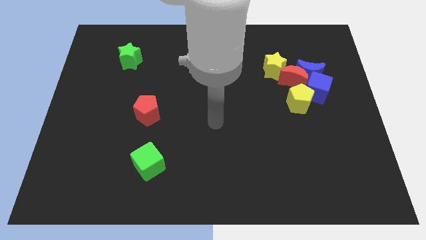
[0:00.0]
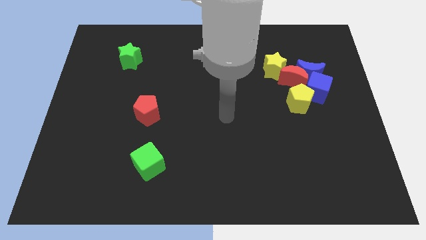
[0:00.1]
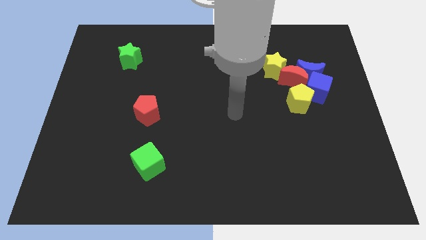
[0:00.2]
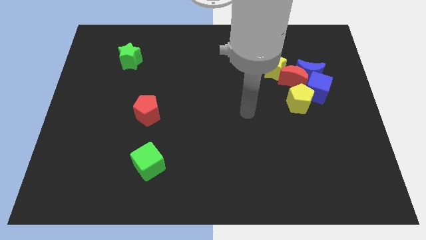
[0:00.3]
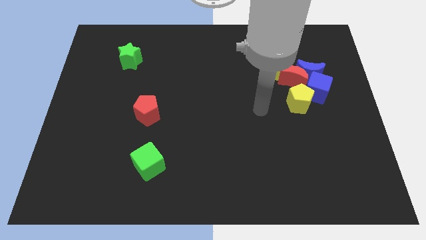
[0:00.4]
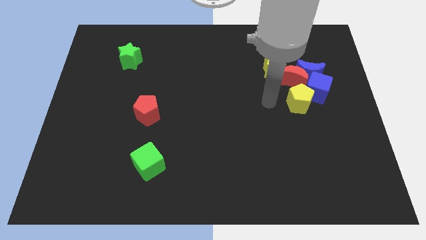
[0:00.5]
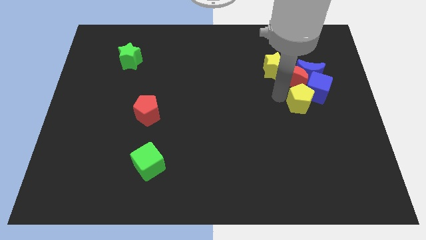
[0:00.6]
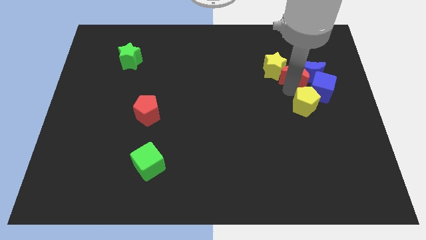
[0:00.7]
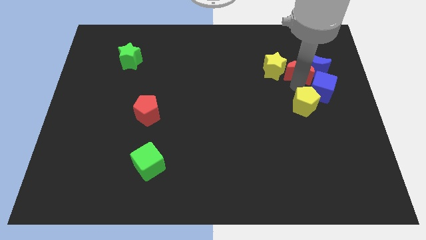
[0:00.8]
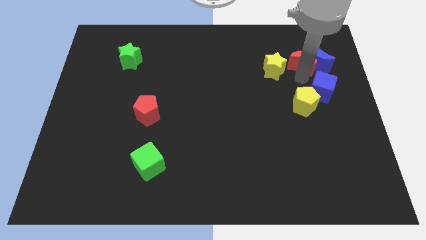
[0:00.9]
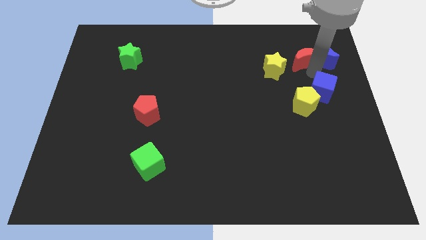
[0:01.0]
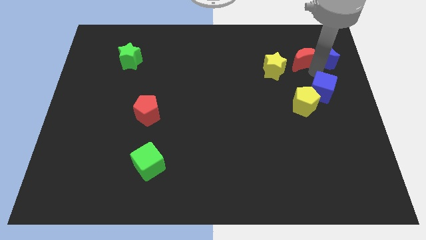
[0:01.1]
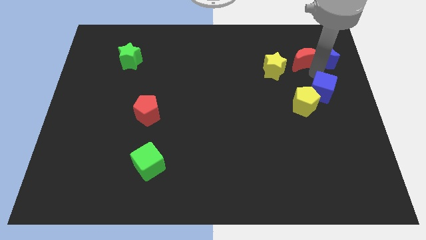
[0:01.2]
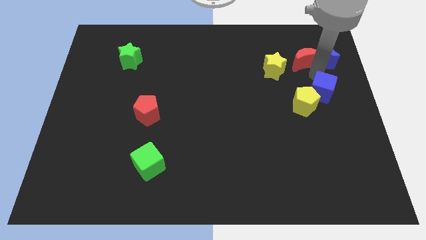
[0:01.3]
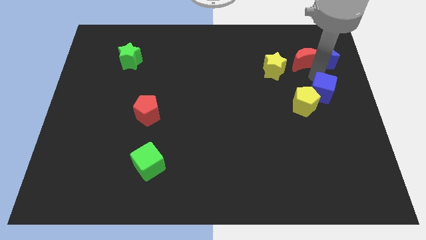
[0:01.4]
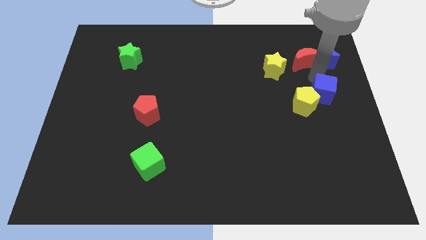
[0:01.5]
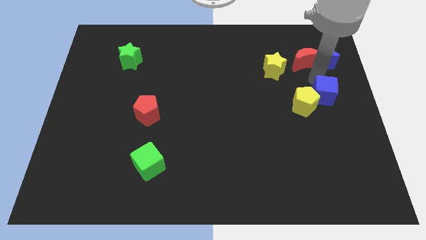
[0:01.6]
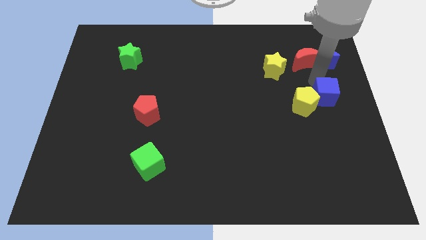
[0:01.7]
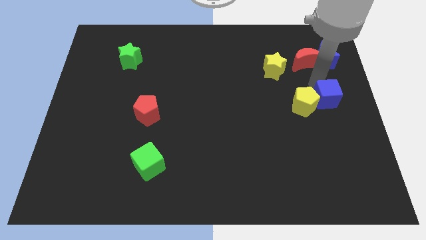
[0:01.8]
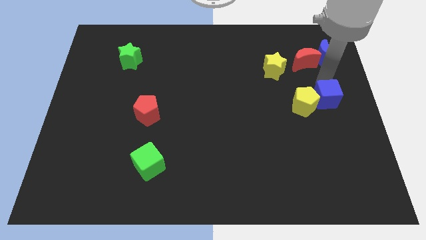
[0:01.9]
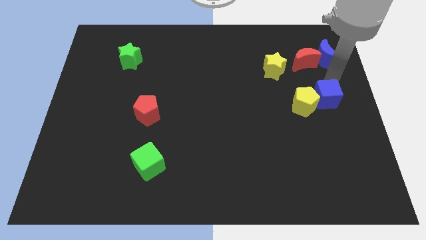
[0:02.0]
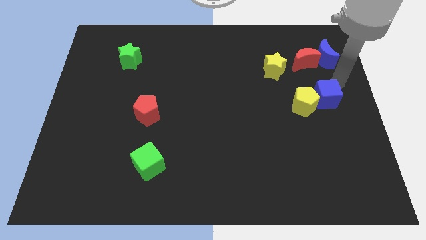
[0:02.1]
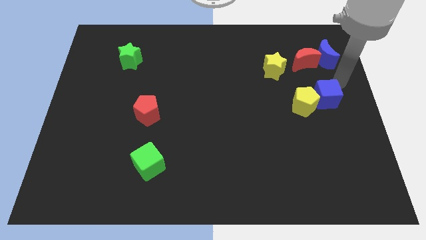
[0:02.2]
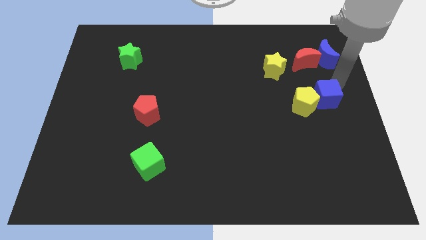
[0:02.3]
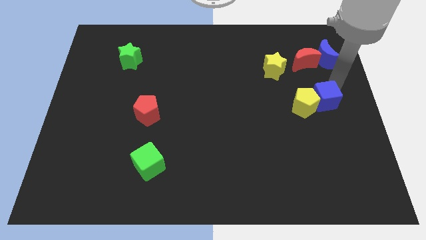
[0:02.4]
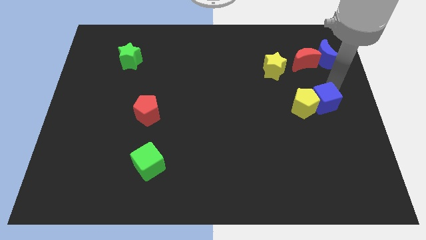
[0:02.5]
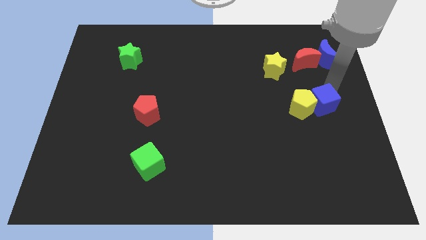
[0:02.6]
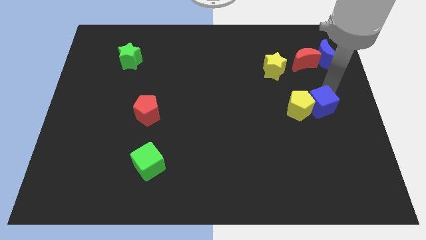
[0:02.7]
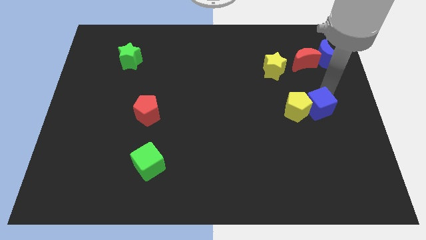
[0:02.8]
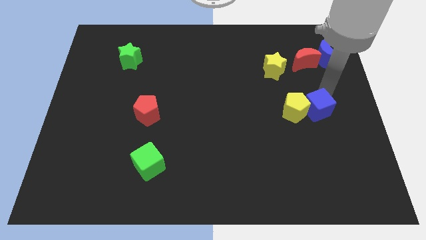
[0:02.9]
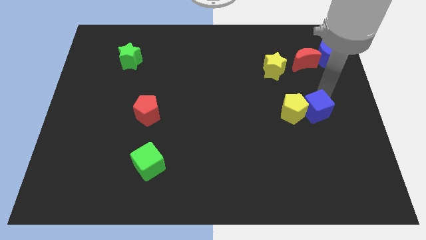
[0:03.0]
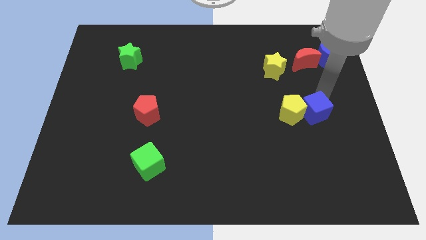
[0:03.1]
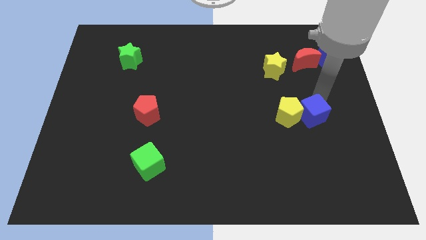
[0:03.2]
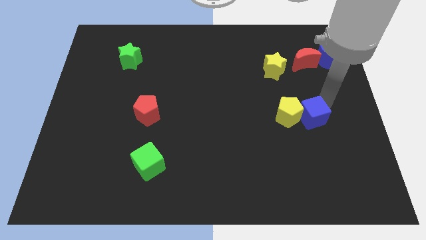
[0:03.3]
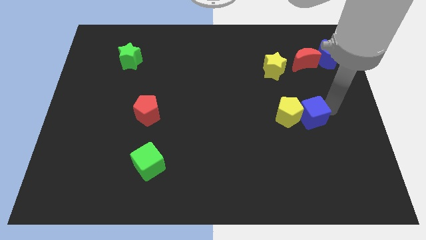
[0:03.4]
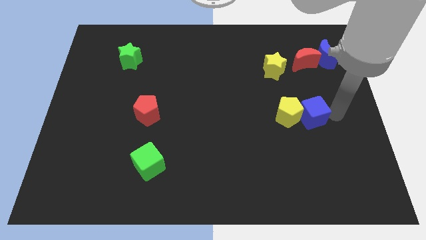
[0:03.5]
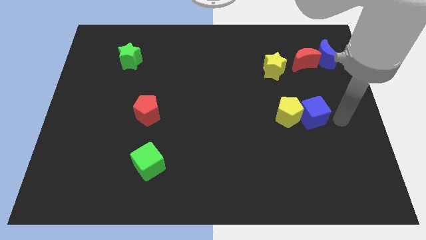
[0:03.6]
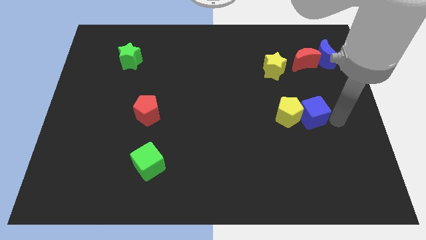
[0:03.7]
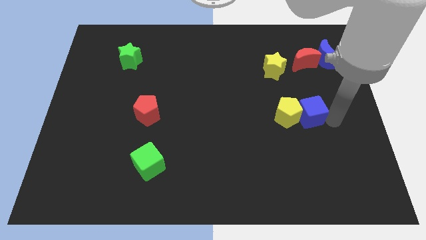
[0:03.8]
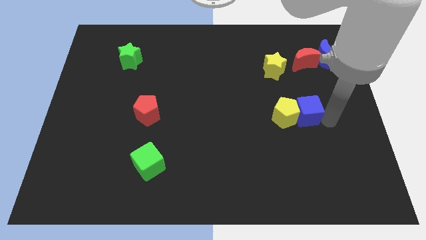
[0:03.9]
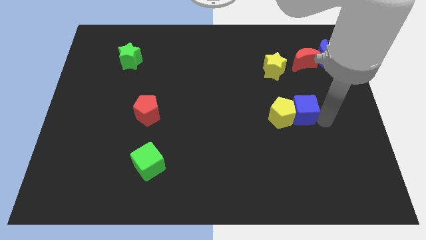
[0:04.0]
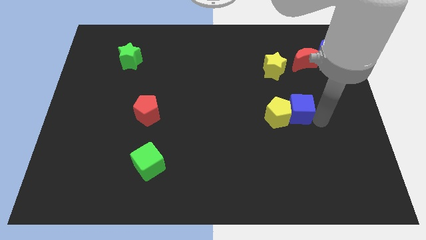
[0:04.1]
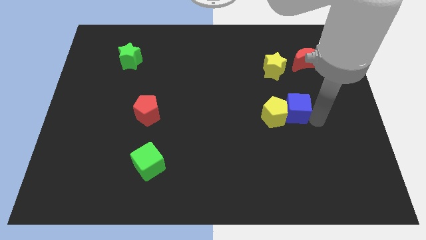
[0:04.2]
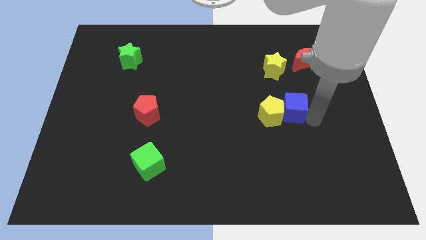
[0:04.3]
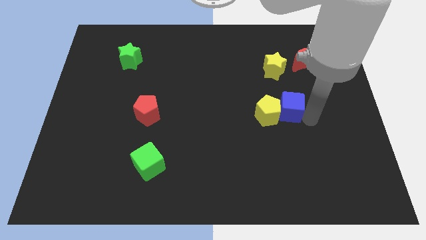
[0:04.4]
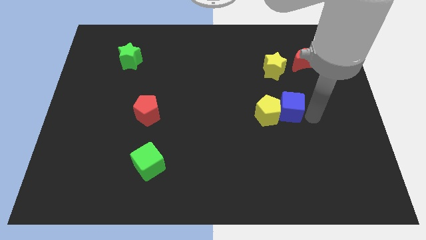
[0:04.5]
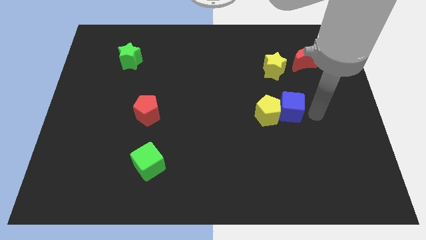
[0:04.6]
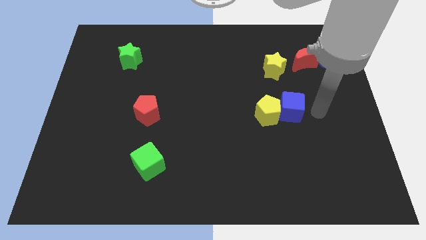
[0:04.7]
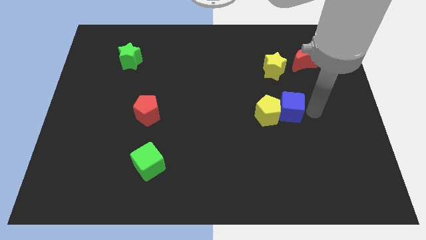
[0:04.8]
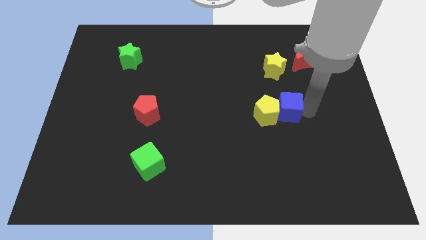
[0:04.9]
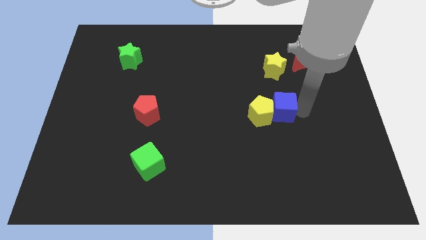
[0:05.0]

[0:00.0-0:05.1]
slide the blue cube to the left a little

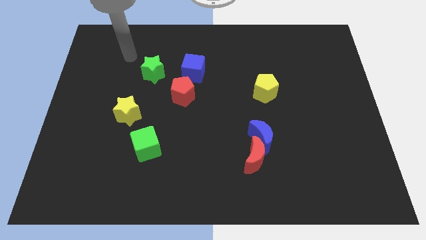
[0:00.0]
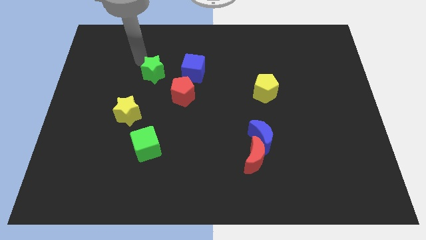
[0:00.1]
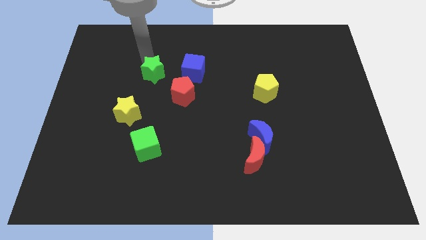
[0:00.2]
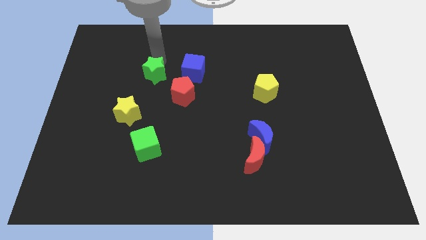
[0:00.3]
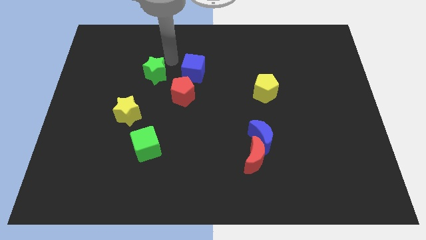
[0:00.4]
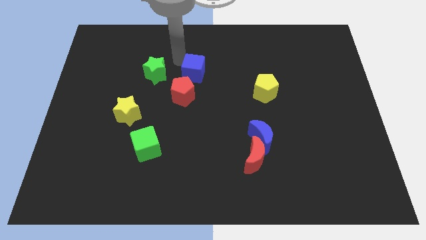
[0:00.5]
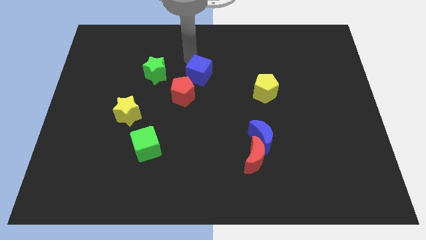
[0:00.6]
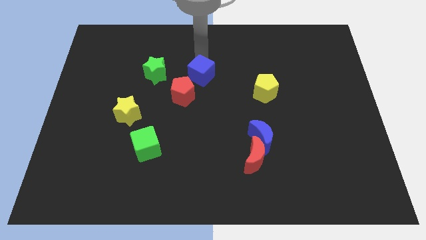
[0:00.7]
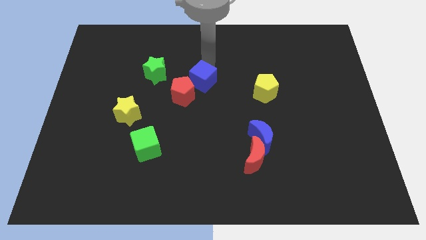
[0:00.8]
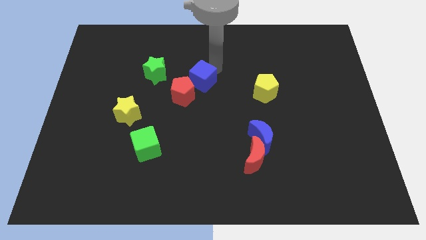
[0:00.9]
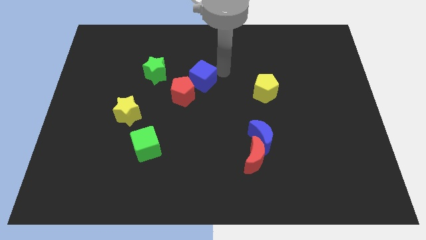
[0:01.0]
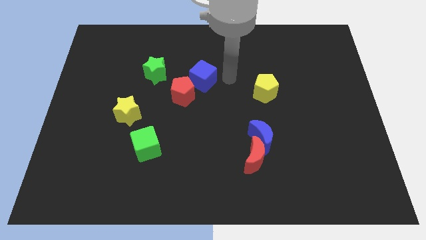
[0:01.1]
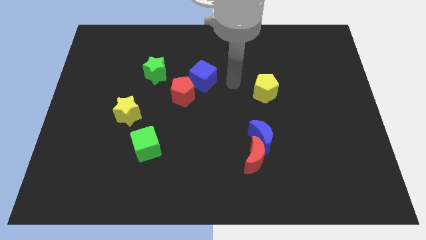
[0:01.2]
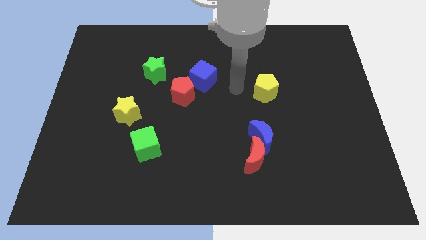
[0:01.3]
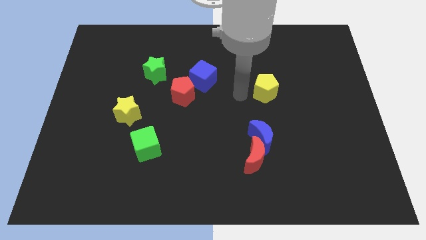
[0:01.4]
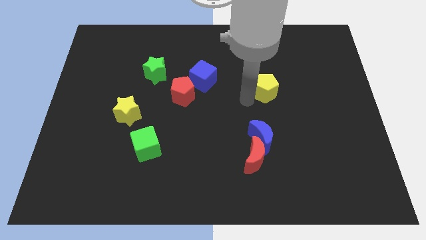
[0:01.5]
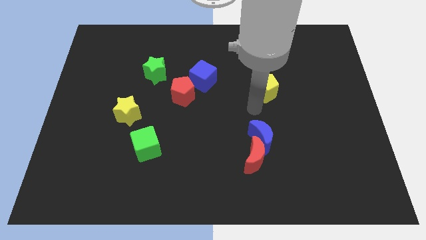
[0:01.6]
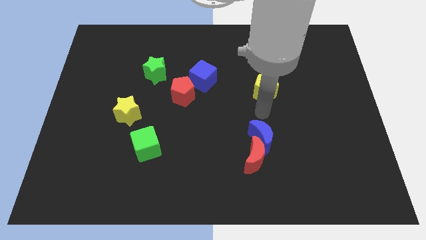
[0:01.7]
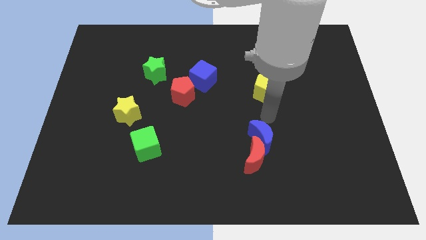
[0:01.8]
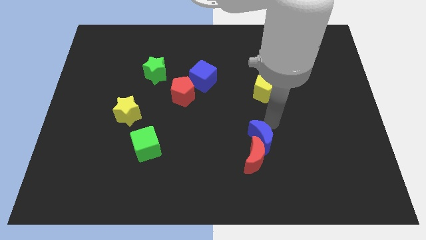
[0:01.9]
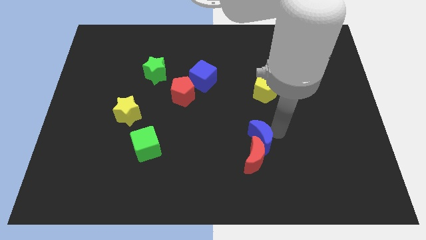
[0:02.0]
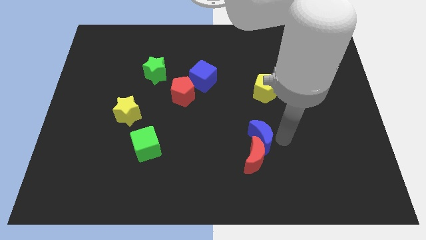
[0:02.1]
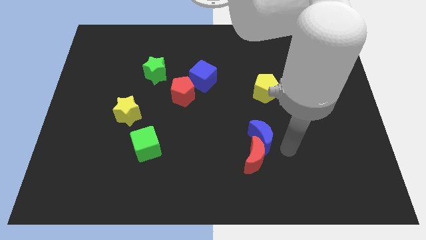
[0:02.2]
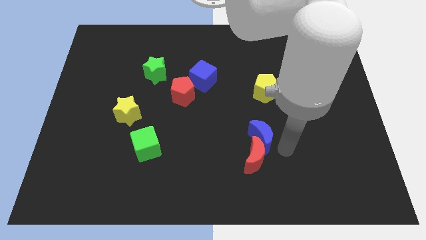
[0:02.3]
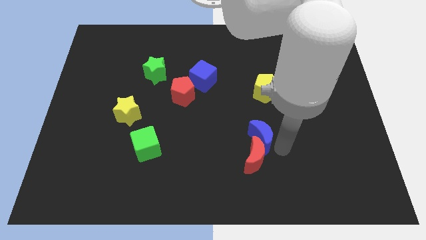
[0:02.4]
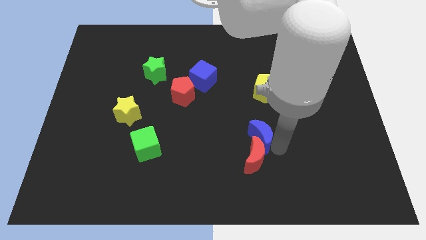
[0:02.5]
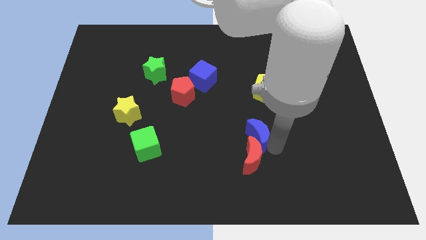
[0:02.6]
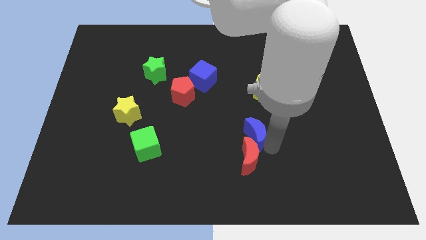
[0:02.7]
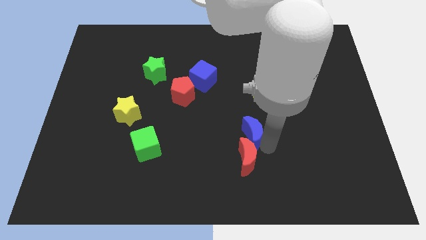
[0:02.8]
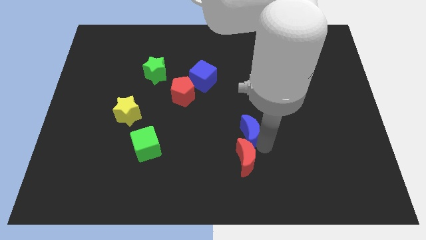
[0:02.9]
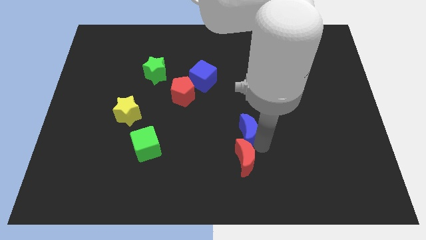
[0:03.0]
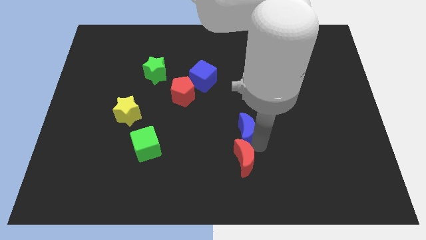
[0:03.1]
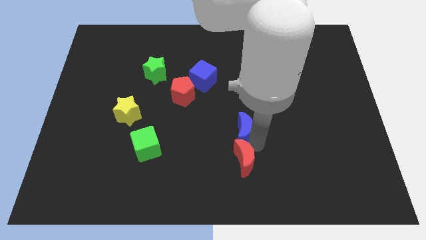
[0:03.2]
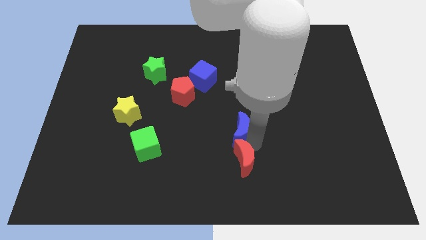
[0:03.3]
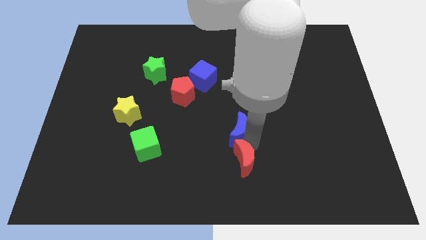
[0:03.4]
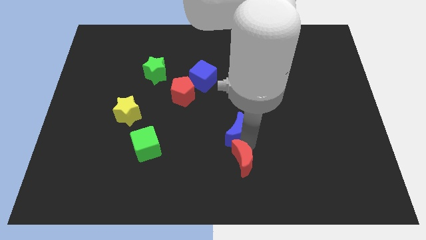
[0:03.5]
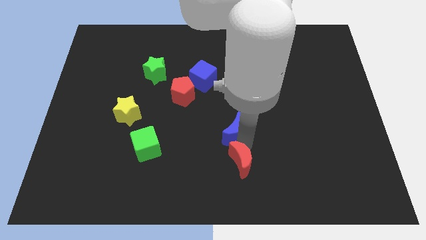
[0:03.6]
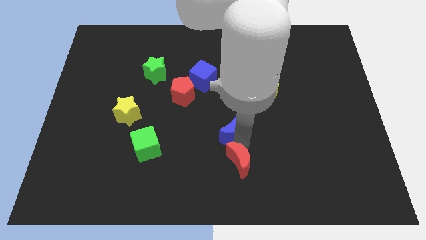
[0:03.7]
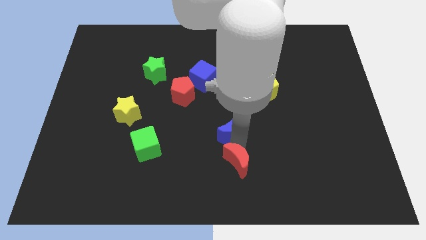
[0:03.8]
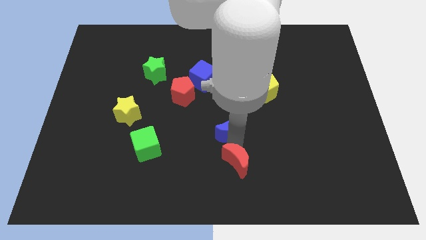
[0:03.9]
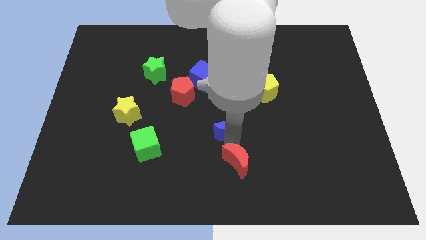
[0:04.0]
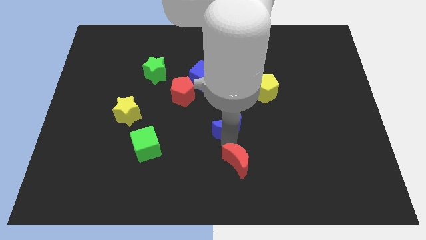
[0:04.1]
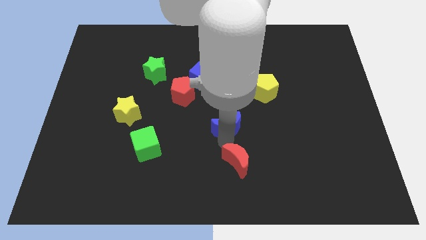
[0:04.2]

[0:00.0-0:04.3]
move the blue moon a bit upwards and to the left
